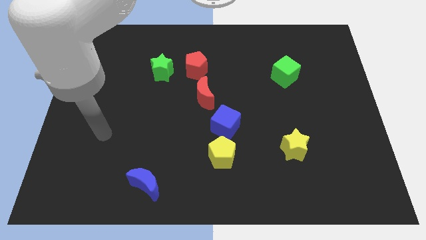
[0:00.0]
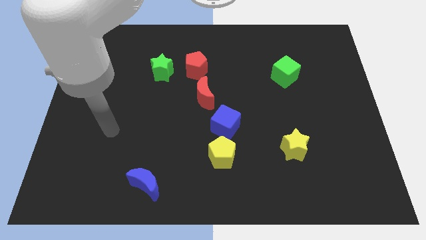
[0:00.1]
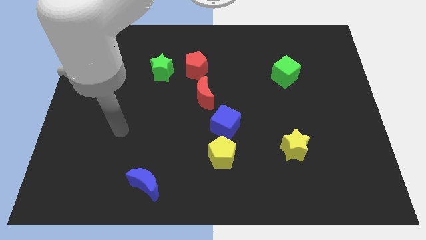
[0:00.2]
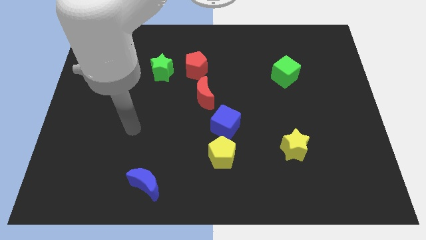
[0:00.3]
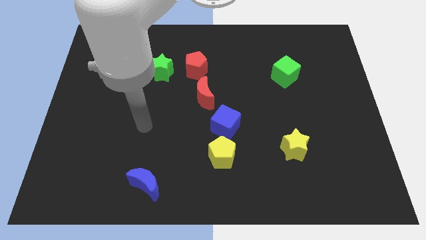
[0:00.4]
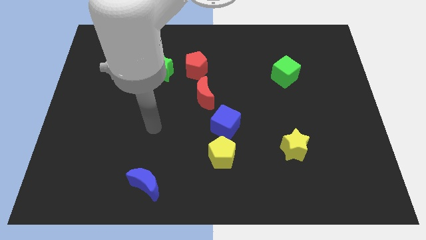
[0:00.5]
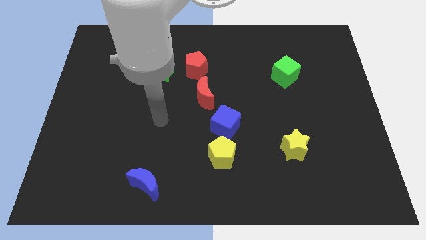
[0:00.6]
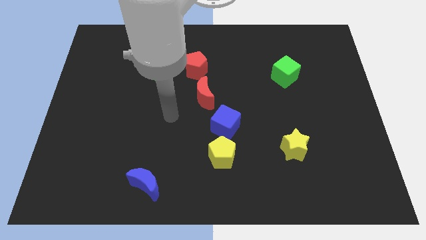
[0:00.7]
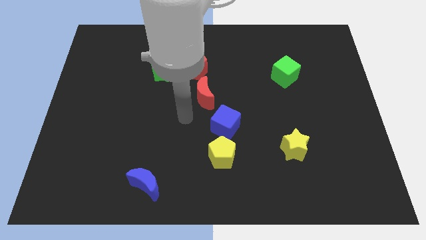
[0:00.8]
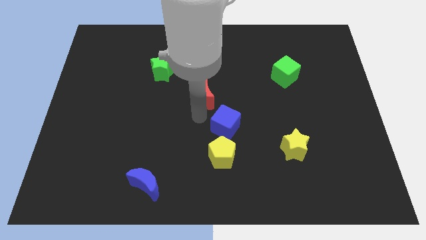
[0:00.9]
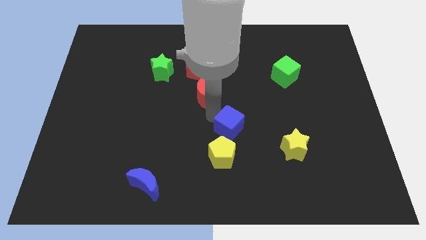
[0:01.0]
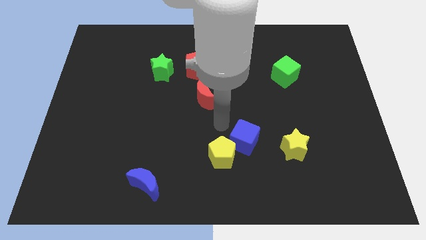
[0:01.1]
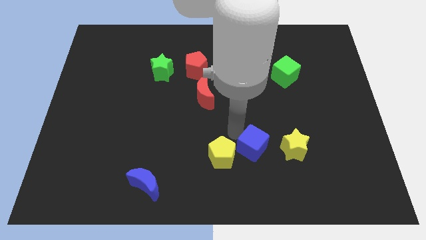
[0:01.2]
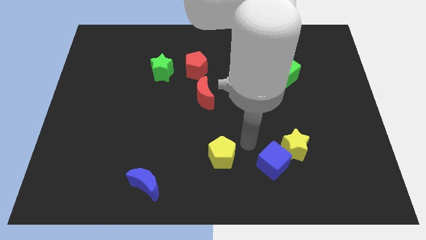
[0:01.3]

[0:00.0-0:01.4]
separate the yellow pentagon from the blue cube

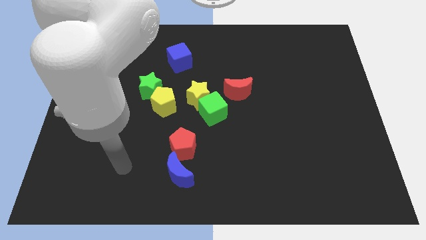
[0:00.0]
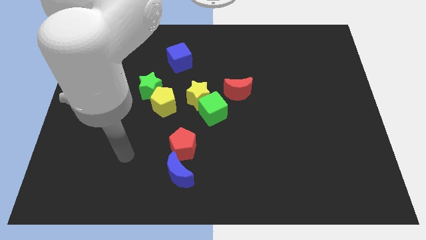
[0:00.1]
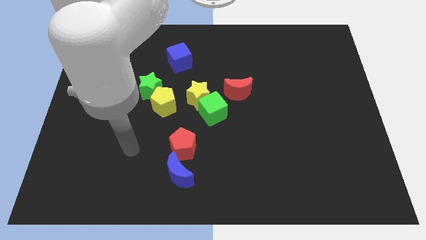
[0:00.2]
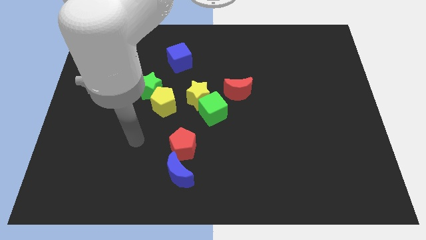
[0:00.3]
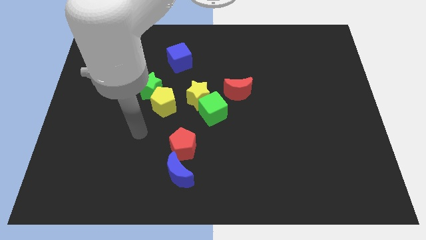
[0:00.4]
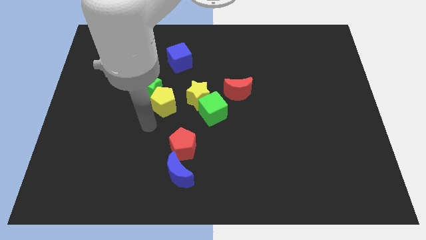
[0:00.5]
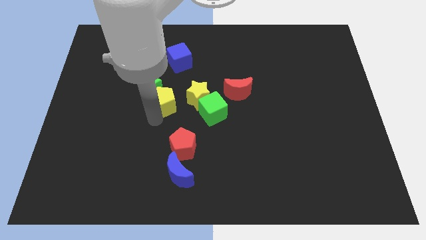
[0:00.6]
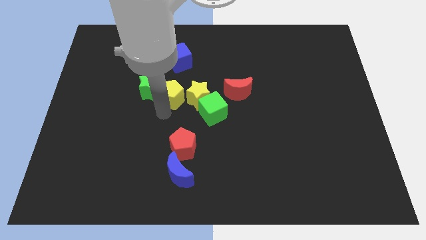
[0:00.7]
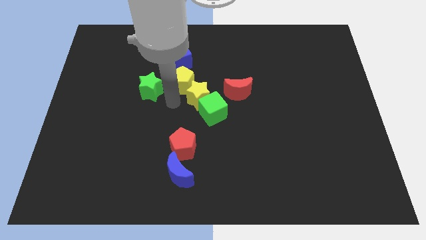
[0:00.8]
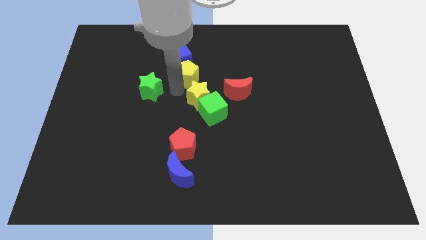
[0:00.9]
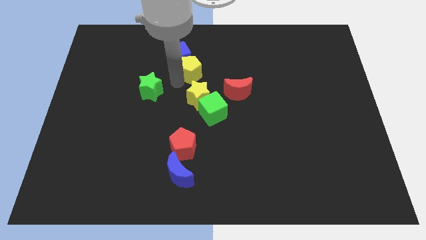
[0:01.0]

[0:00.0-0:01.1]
separate the green star from the yellow pentagon

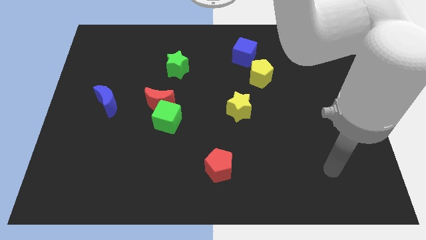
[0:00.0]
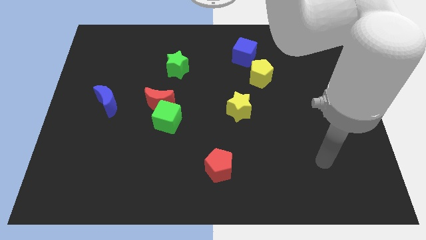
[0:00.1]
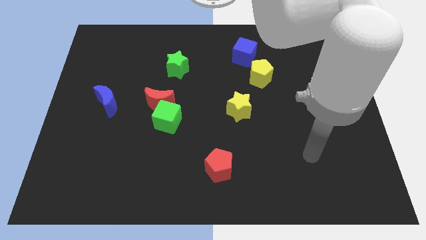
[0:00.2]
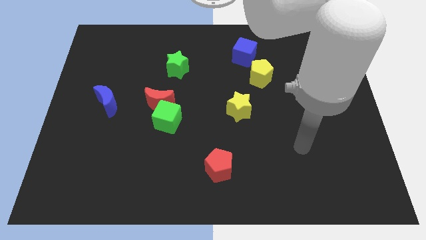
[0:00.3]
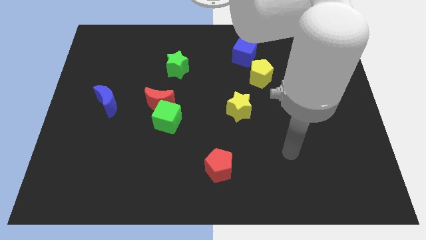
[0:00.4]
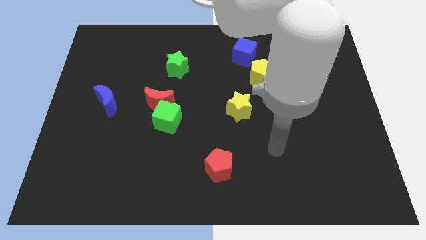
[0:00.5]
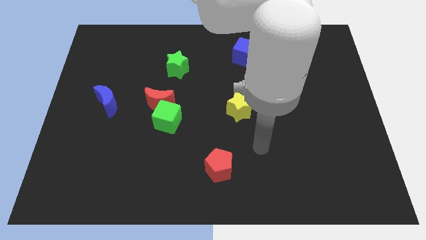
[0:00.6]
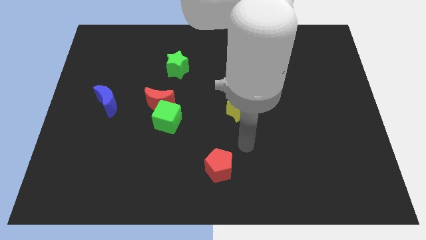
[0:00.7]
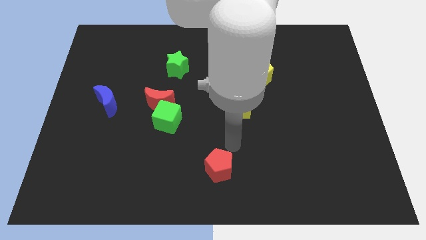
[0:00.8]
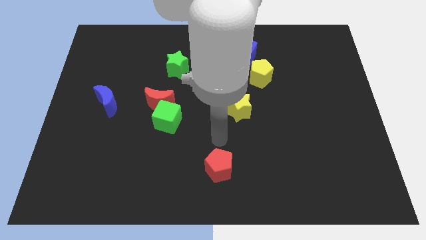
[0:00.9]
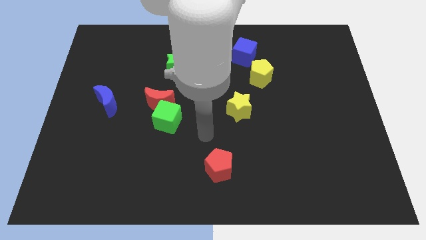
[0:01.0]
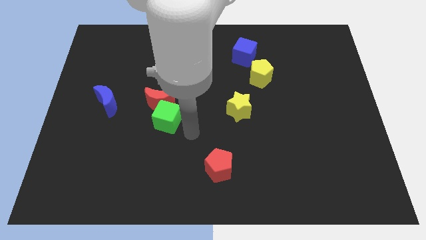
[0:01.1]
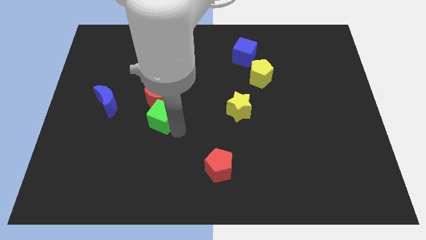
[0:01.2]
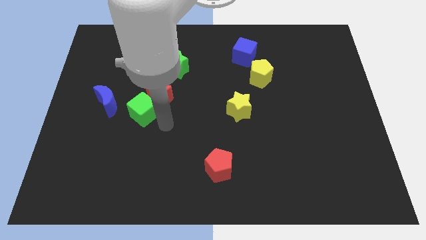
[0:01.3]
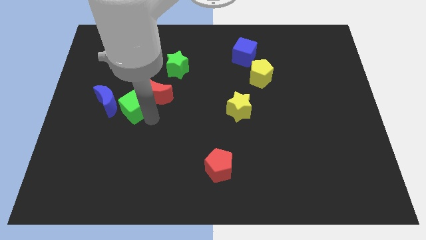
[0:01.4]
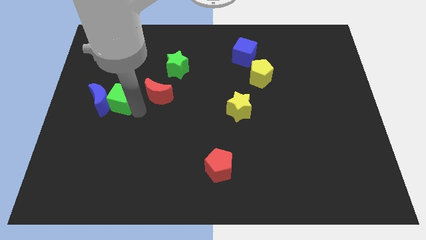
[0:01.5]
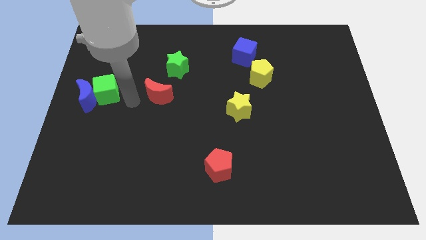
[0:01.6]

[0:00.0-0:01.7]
pull the red moon apart from the green cube

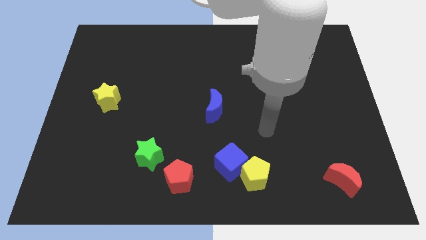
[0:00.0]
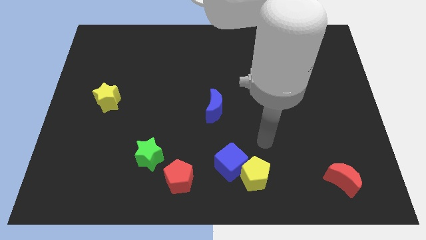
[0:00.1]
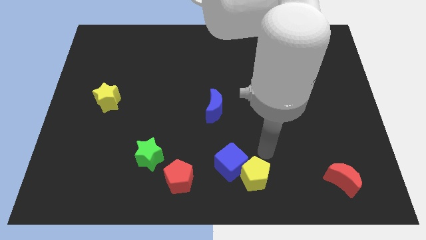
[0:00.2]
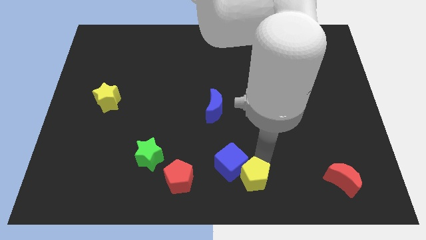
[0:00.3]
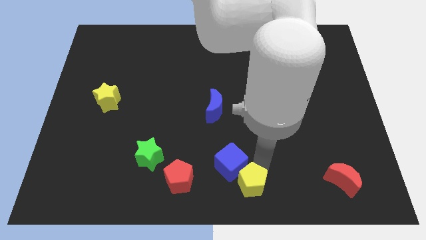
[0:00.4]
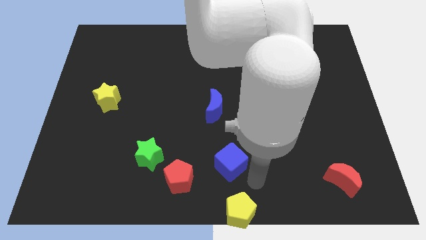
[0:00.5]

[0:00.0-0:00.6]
move the blue cube away from the yellow pentagon

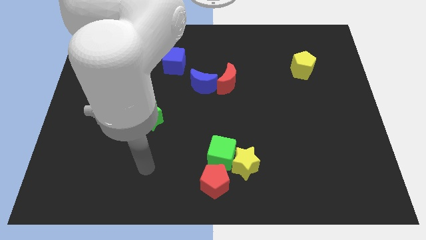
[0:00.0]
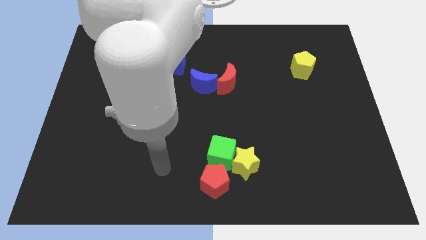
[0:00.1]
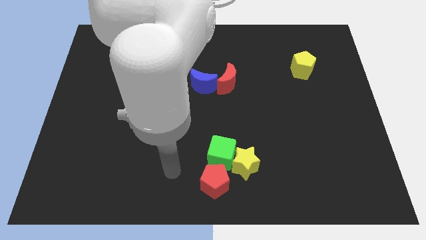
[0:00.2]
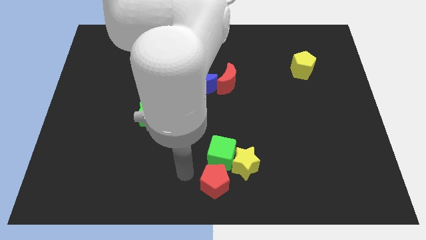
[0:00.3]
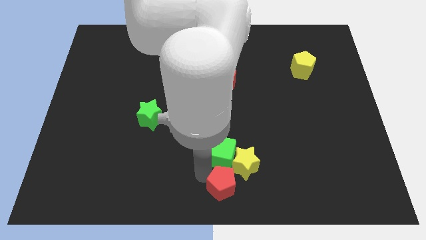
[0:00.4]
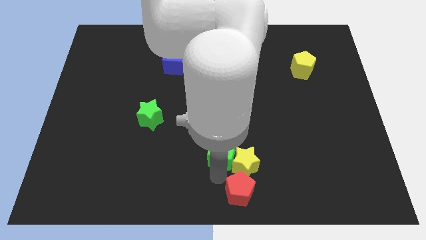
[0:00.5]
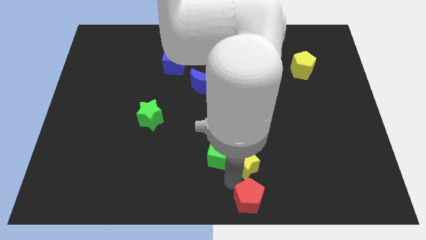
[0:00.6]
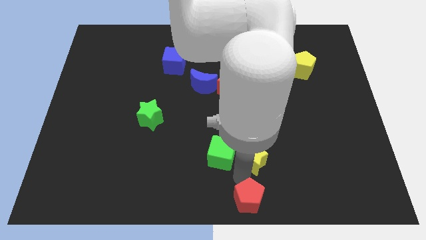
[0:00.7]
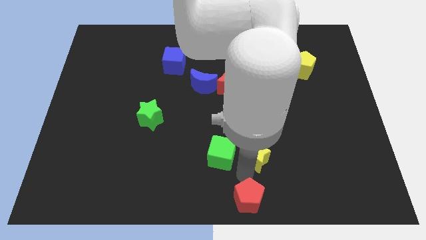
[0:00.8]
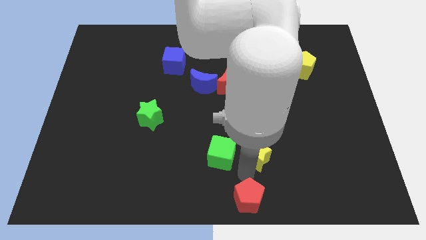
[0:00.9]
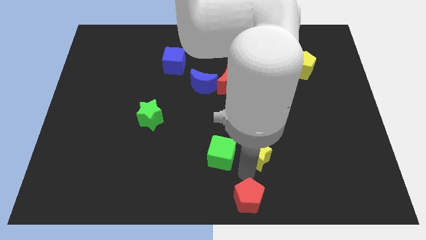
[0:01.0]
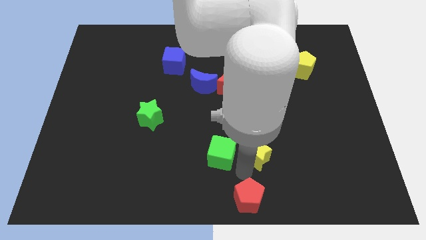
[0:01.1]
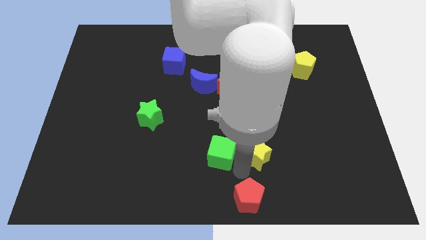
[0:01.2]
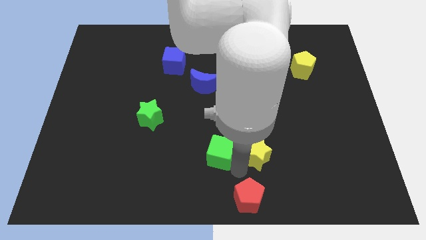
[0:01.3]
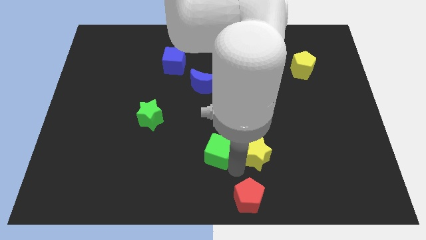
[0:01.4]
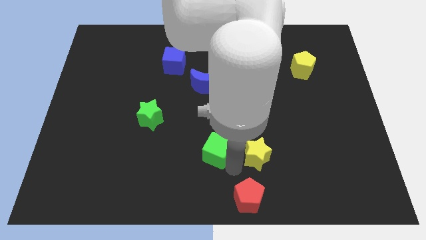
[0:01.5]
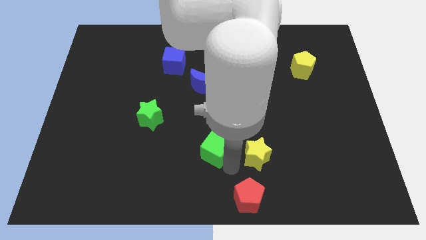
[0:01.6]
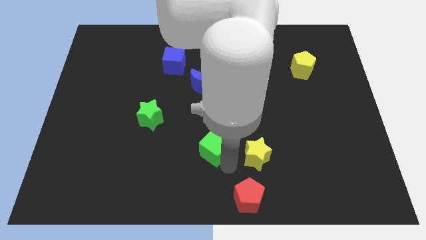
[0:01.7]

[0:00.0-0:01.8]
separate the green cube from the yellow star and red pentagon

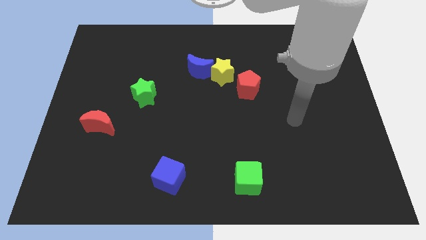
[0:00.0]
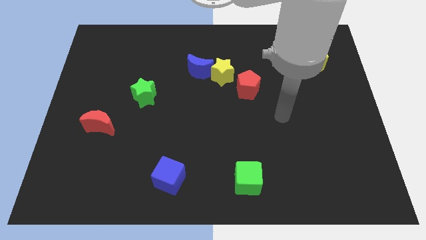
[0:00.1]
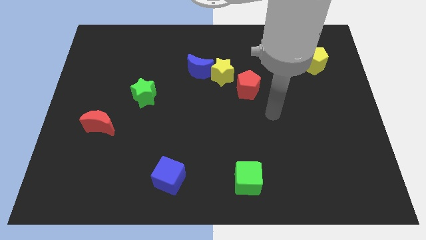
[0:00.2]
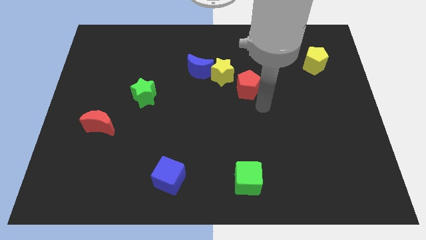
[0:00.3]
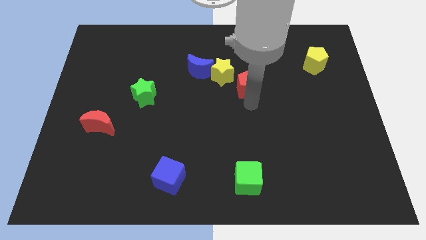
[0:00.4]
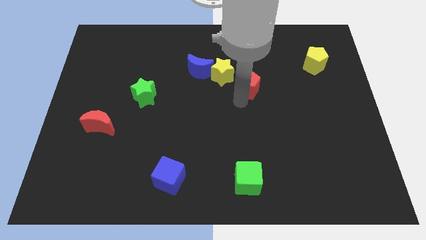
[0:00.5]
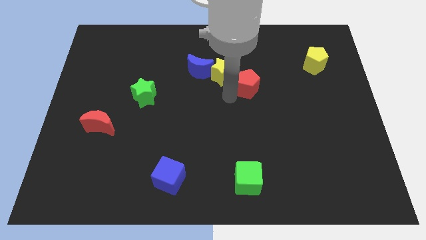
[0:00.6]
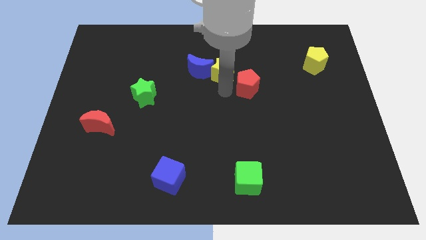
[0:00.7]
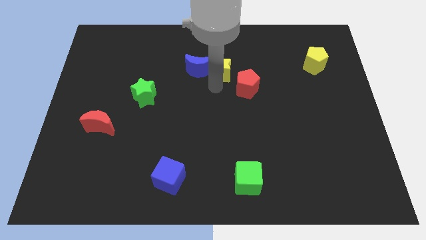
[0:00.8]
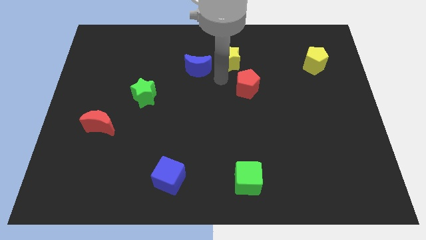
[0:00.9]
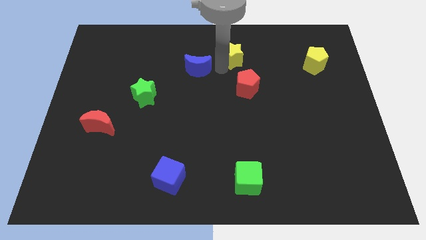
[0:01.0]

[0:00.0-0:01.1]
separate the blue moon from the yellow star

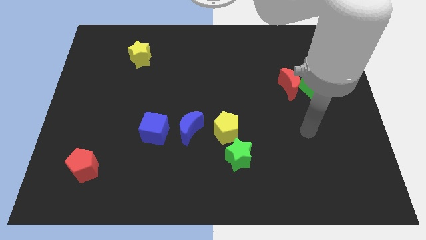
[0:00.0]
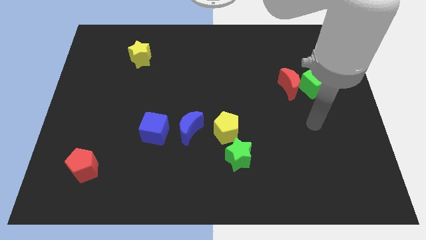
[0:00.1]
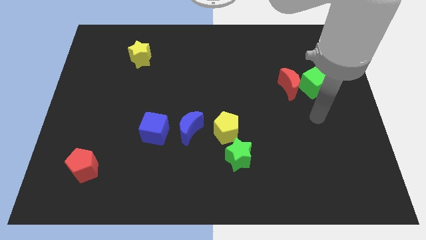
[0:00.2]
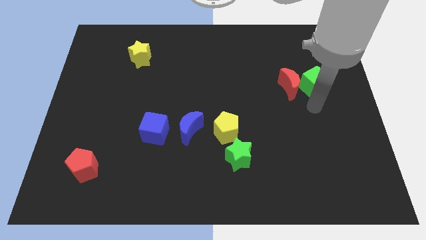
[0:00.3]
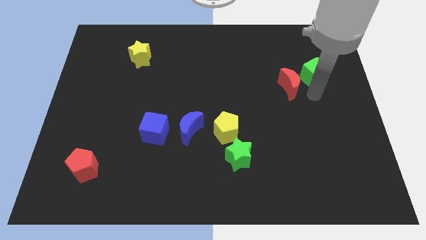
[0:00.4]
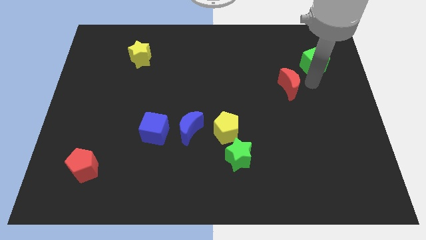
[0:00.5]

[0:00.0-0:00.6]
separate the red moon from the green cube

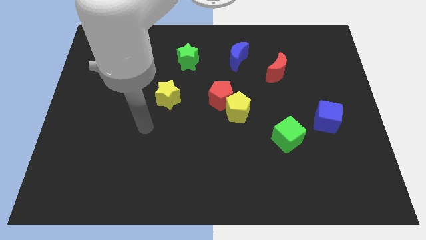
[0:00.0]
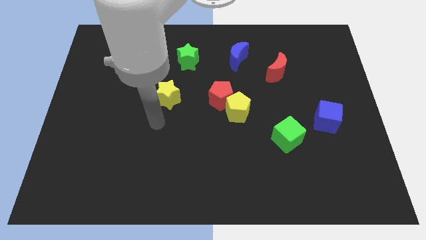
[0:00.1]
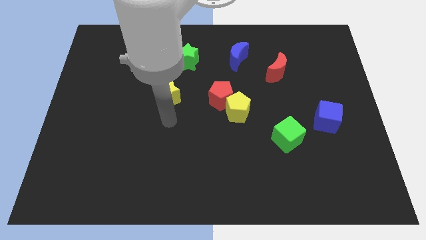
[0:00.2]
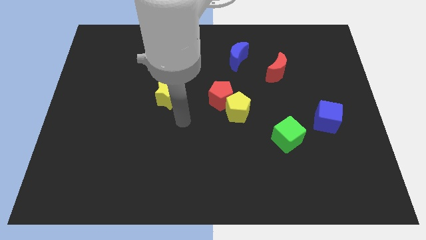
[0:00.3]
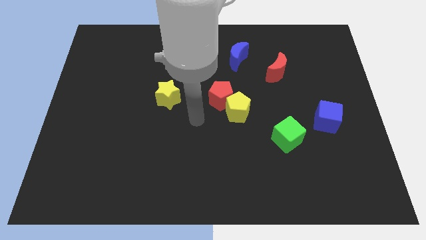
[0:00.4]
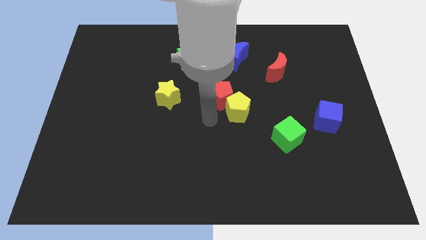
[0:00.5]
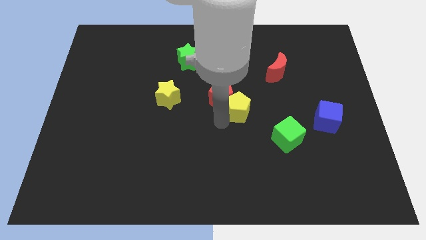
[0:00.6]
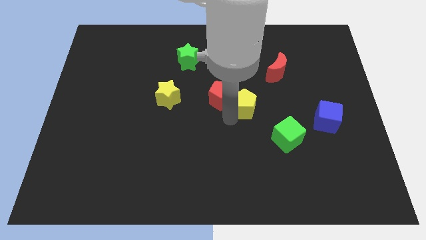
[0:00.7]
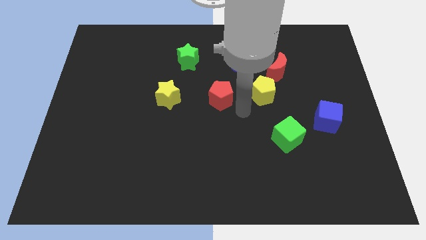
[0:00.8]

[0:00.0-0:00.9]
separate the red pentagon from the yellow pentagon
